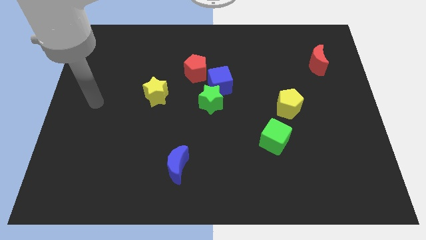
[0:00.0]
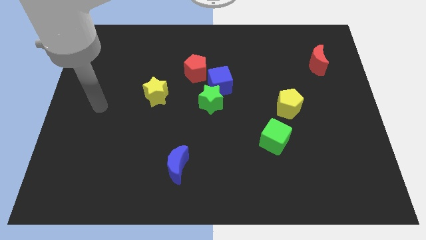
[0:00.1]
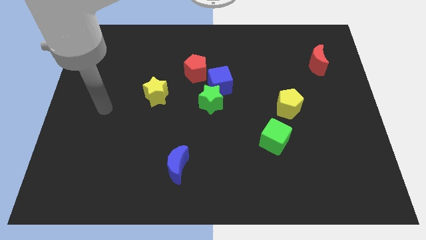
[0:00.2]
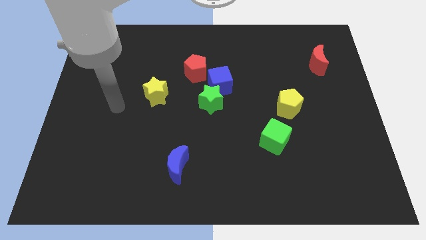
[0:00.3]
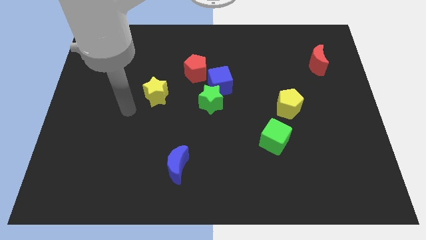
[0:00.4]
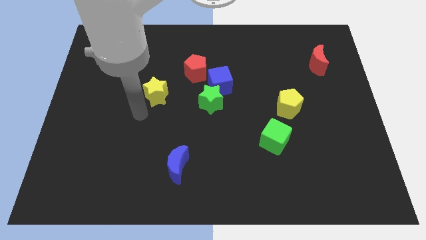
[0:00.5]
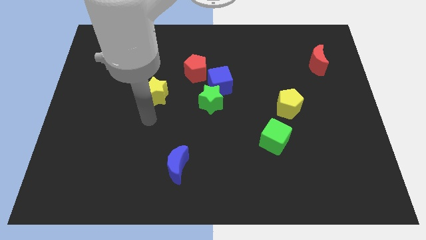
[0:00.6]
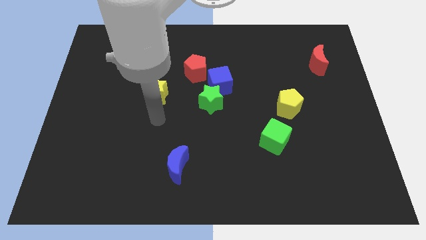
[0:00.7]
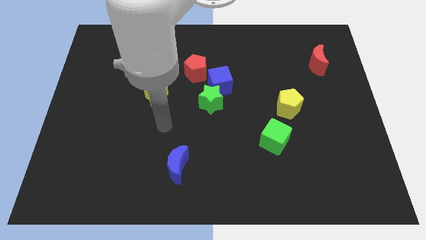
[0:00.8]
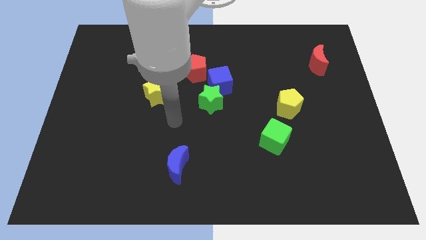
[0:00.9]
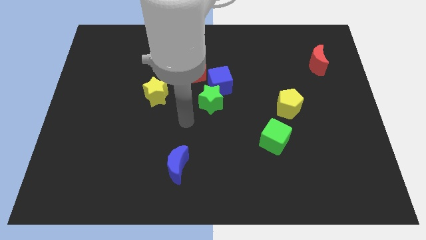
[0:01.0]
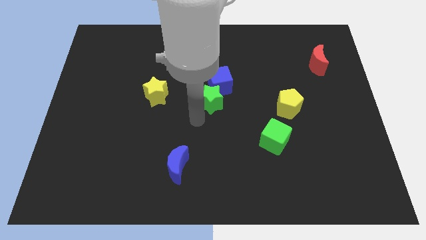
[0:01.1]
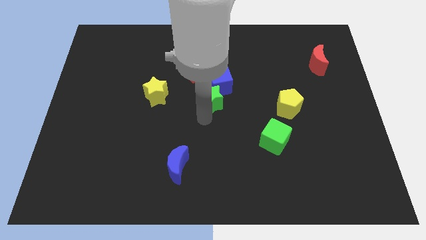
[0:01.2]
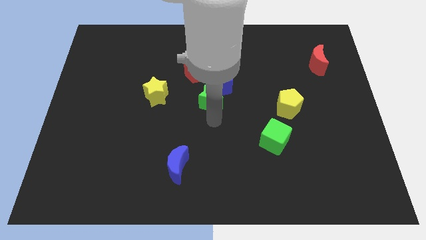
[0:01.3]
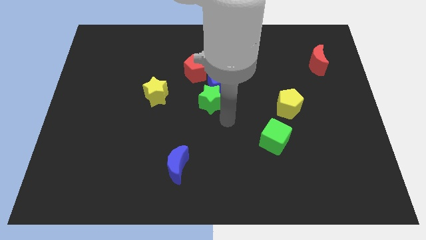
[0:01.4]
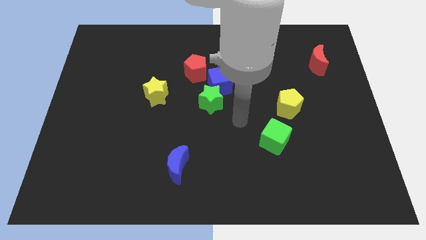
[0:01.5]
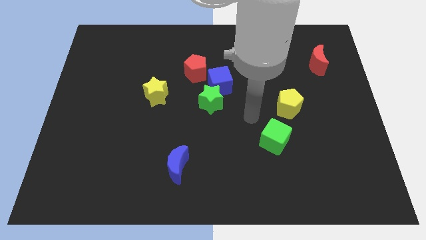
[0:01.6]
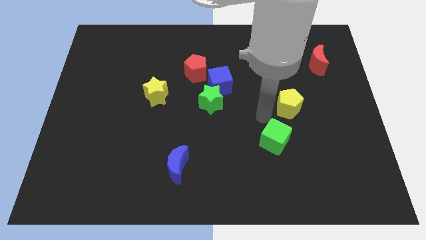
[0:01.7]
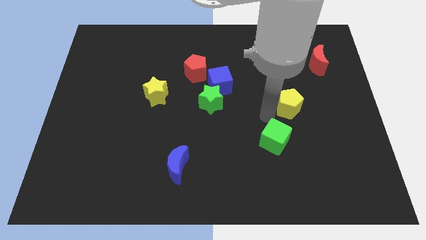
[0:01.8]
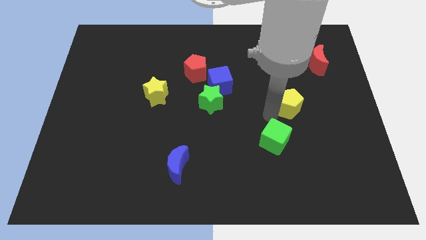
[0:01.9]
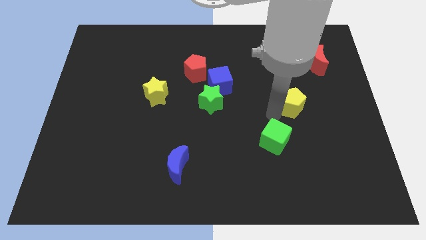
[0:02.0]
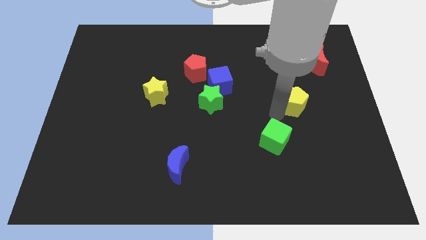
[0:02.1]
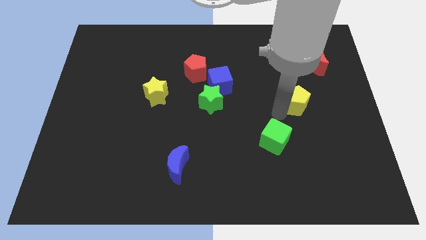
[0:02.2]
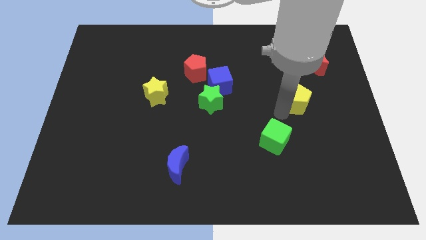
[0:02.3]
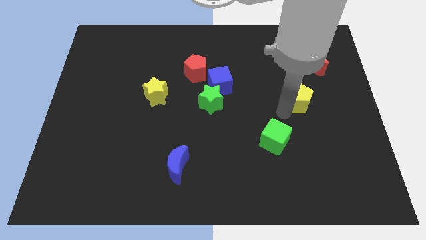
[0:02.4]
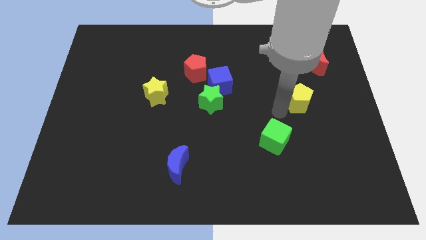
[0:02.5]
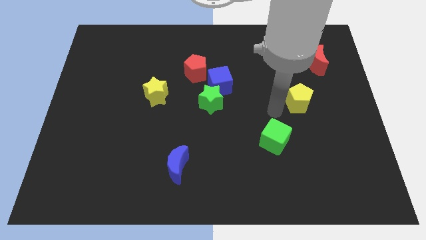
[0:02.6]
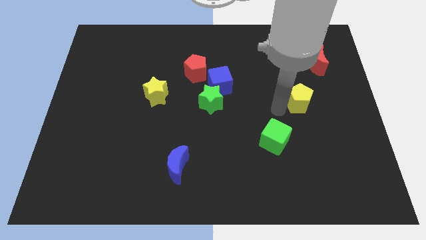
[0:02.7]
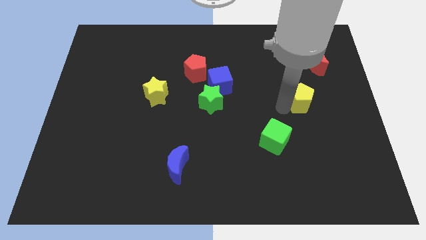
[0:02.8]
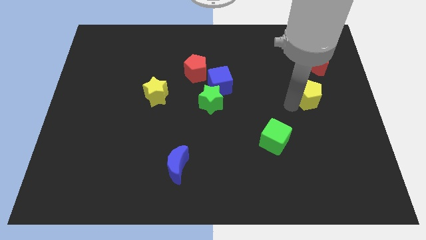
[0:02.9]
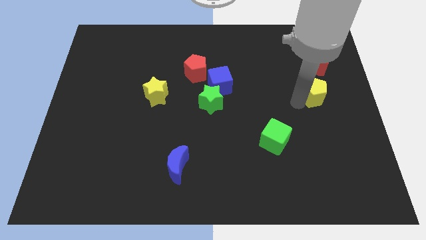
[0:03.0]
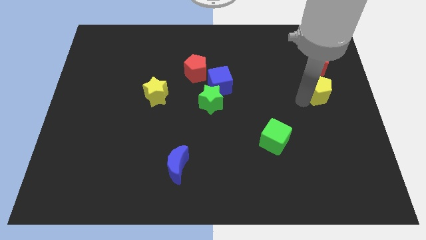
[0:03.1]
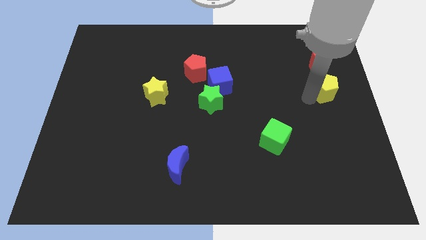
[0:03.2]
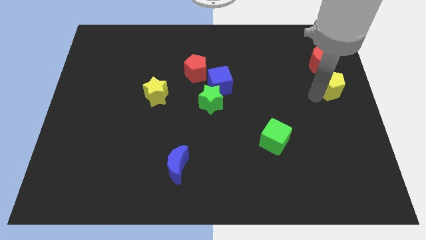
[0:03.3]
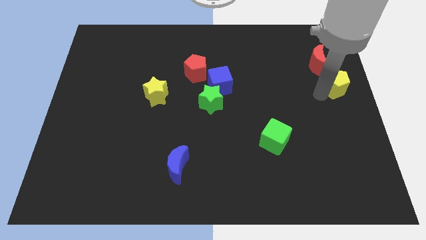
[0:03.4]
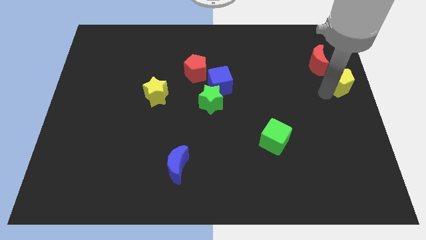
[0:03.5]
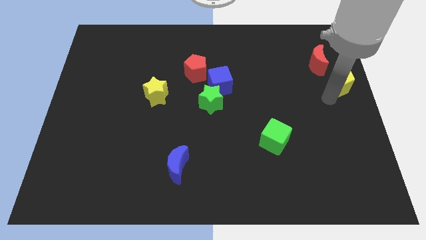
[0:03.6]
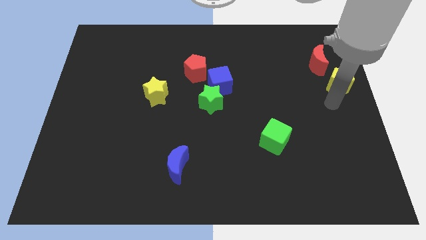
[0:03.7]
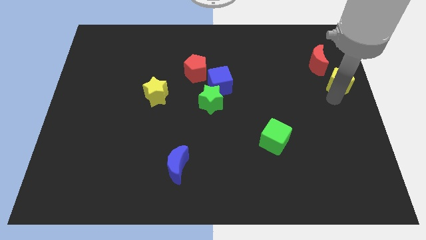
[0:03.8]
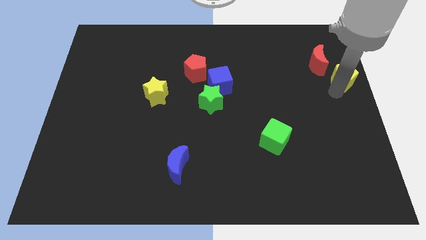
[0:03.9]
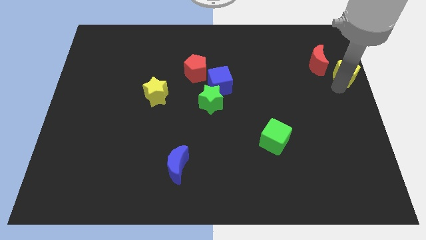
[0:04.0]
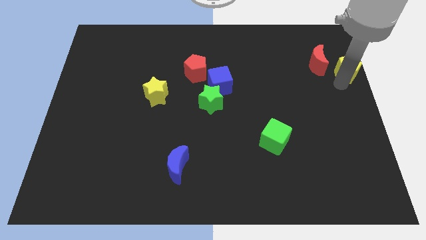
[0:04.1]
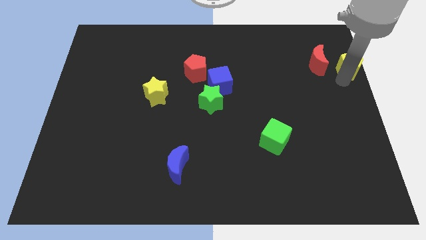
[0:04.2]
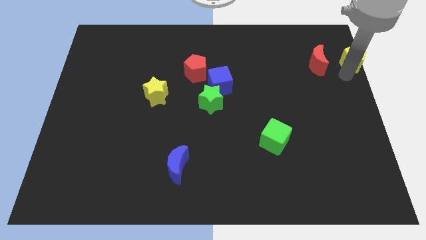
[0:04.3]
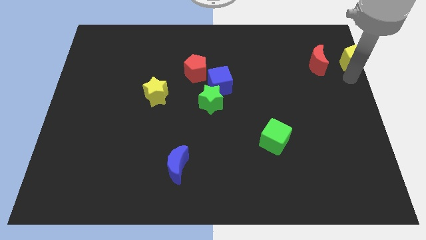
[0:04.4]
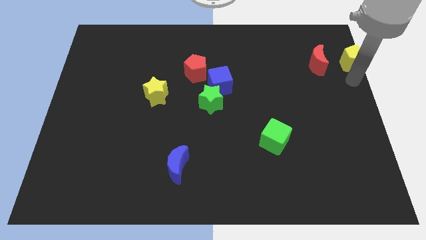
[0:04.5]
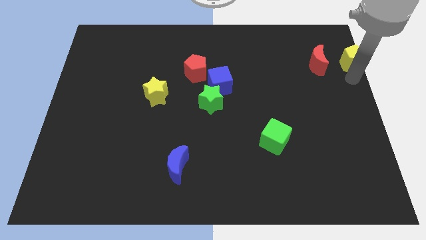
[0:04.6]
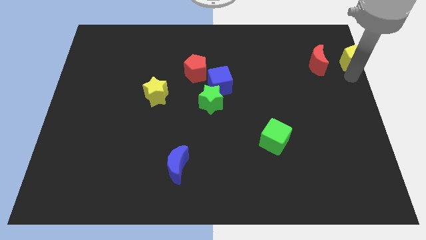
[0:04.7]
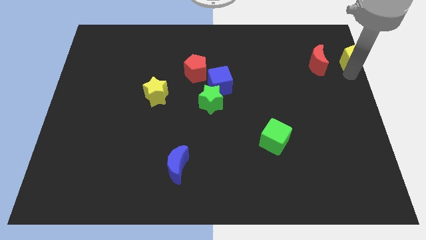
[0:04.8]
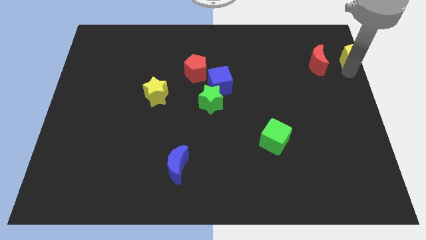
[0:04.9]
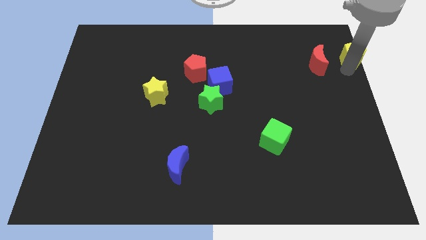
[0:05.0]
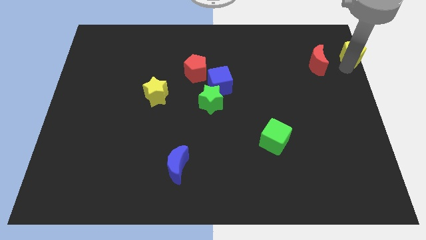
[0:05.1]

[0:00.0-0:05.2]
push the yellow pentagon to the top right
